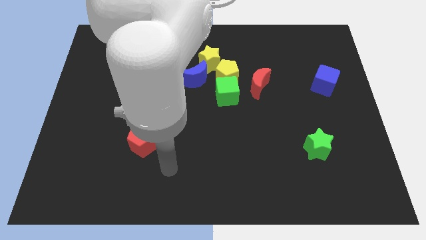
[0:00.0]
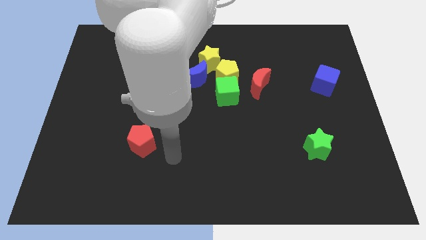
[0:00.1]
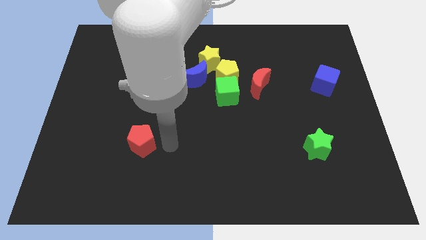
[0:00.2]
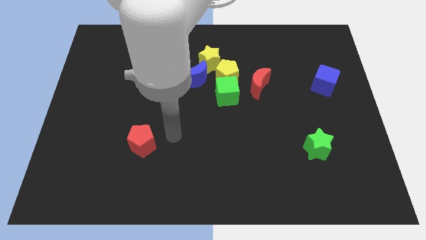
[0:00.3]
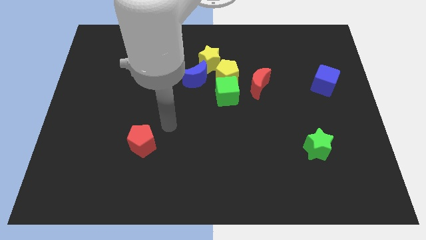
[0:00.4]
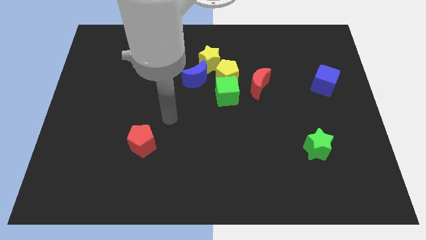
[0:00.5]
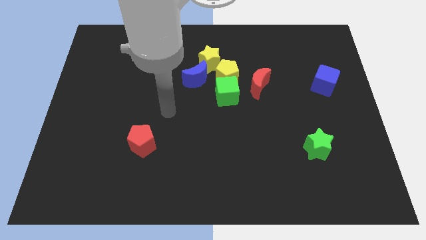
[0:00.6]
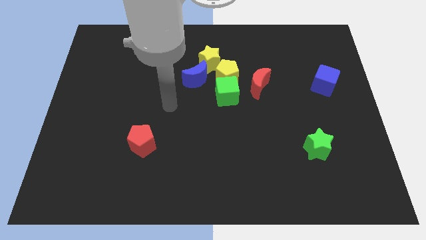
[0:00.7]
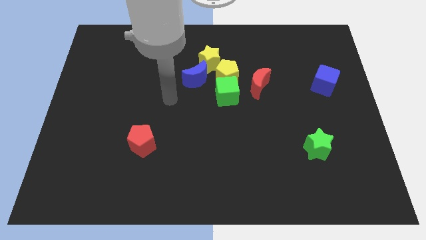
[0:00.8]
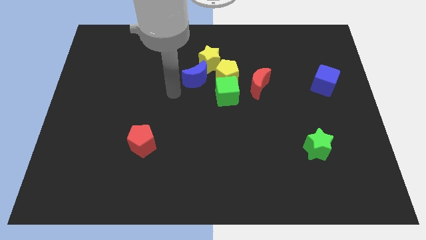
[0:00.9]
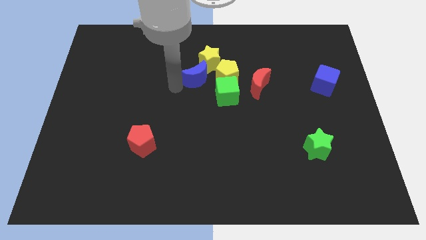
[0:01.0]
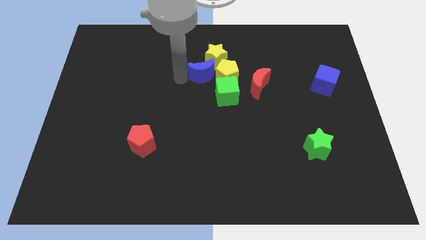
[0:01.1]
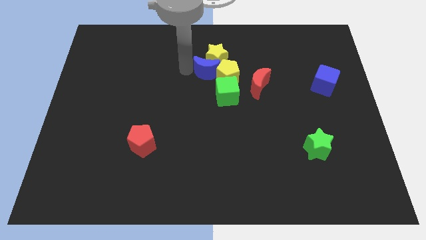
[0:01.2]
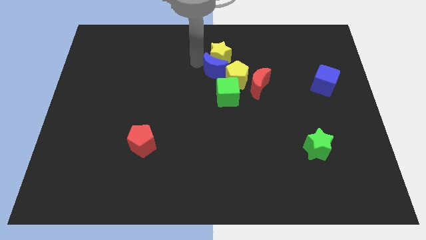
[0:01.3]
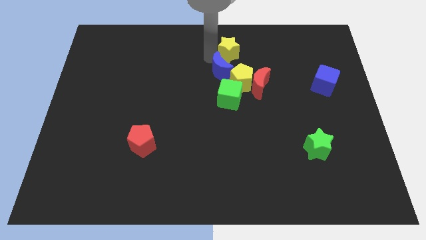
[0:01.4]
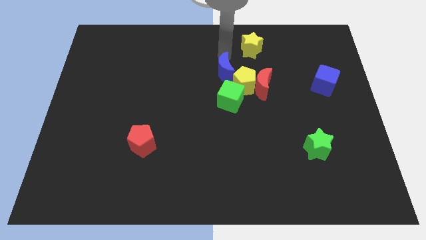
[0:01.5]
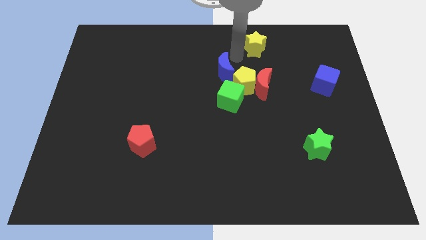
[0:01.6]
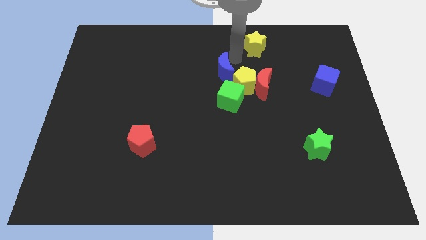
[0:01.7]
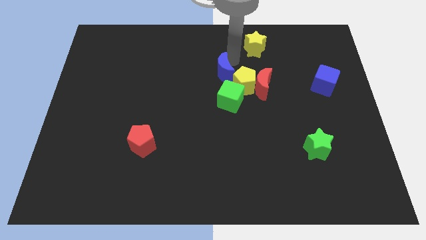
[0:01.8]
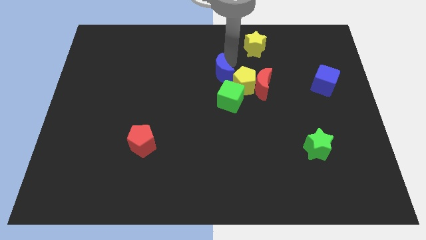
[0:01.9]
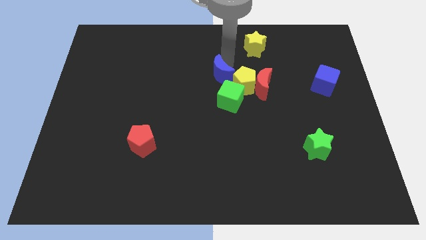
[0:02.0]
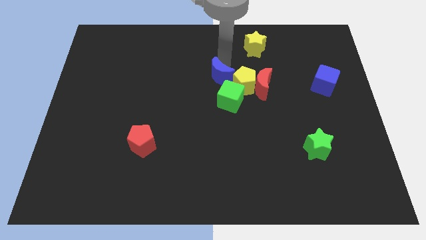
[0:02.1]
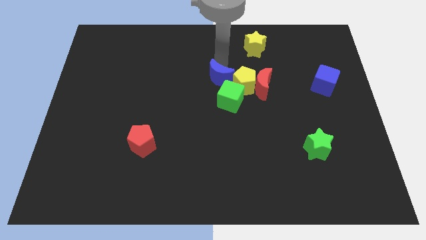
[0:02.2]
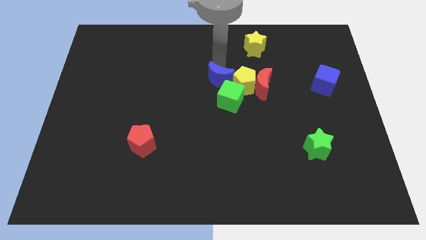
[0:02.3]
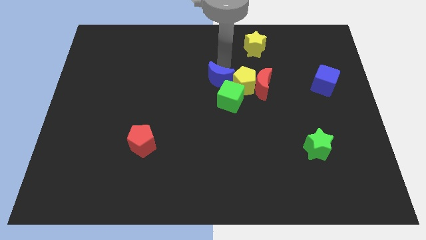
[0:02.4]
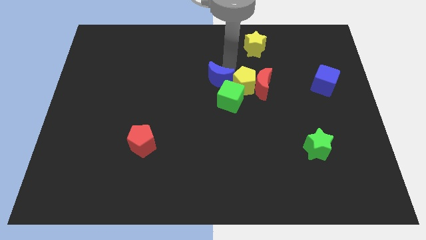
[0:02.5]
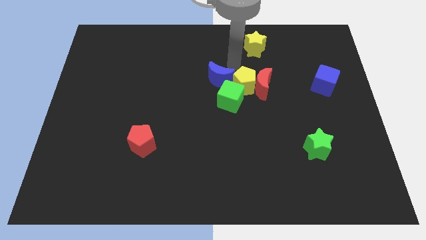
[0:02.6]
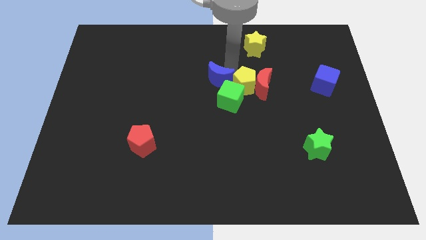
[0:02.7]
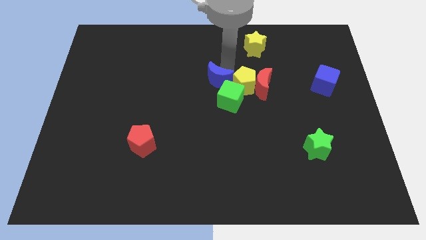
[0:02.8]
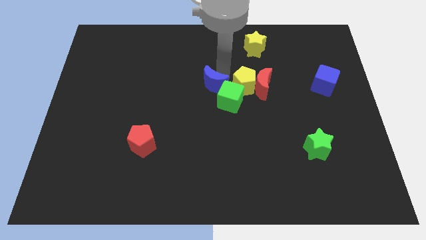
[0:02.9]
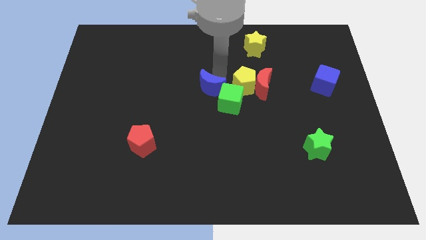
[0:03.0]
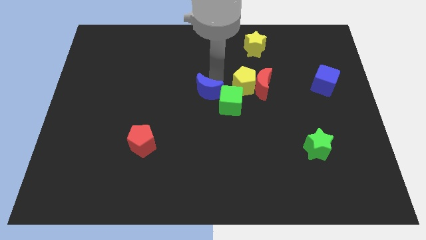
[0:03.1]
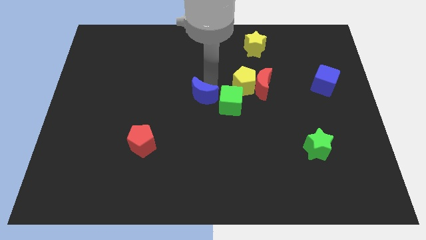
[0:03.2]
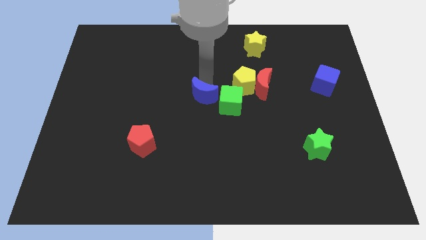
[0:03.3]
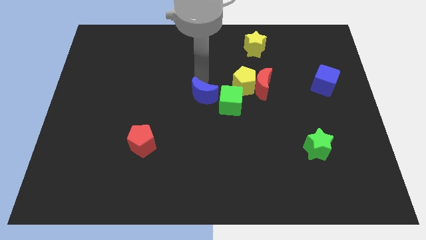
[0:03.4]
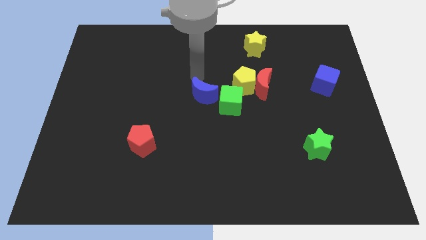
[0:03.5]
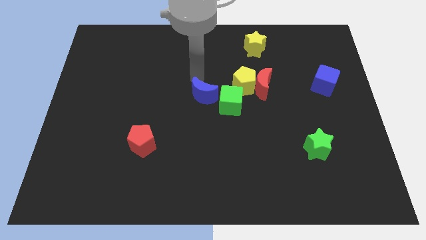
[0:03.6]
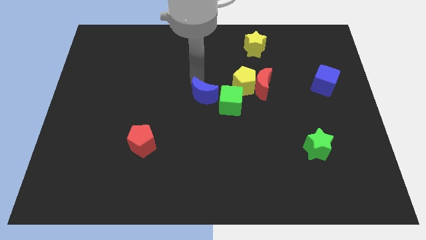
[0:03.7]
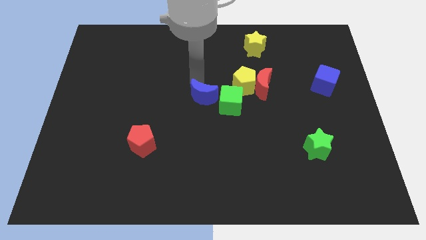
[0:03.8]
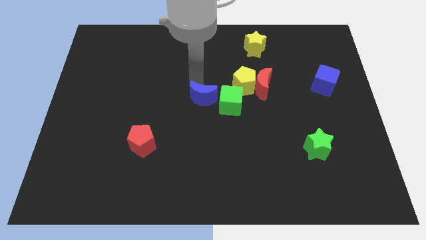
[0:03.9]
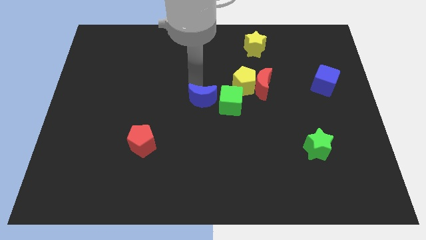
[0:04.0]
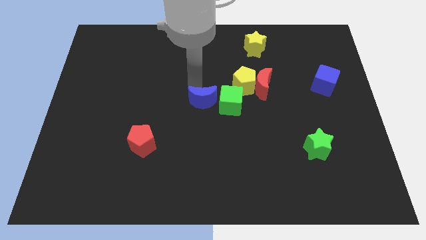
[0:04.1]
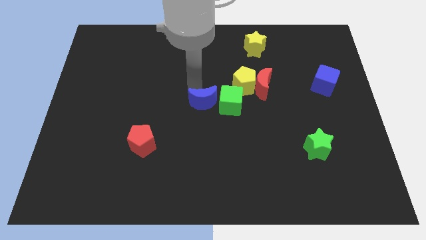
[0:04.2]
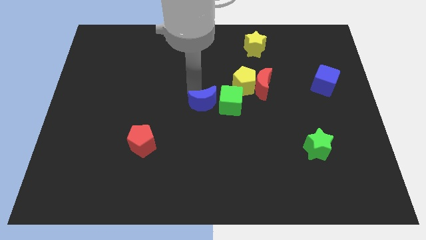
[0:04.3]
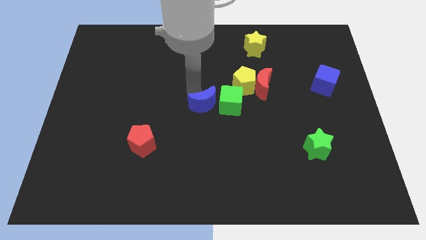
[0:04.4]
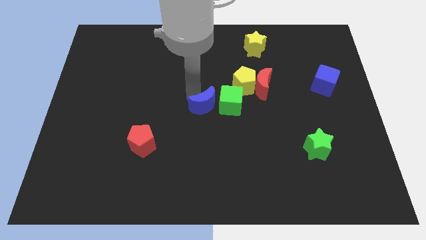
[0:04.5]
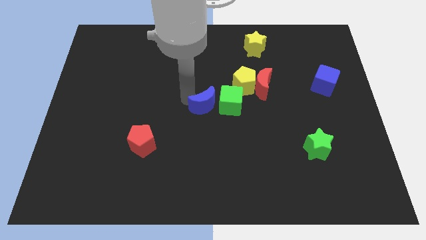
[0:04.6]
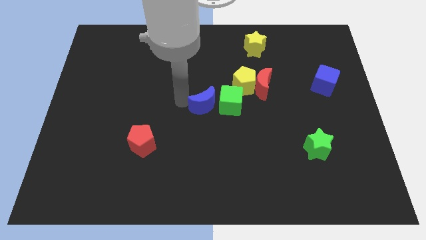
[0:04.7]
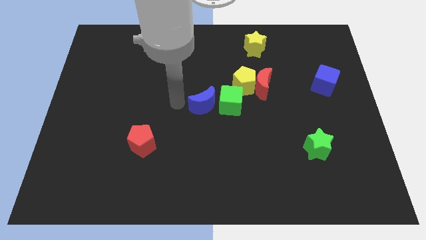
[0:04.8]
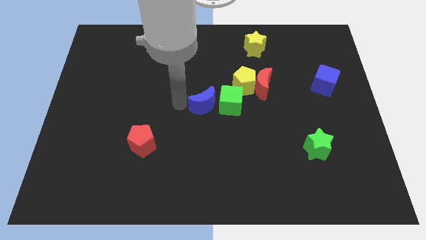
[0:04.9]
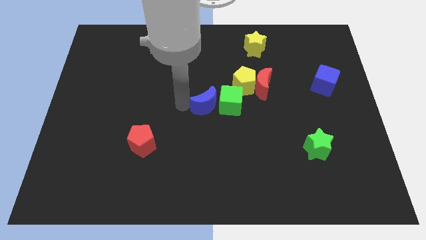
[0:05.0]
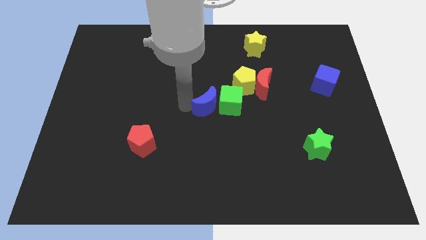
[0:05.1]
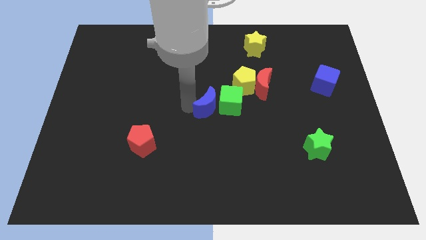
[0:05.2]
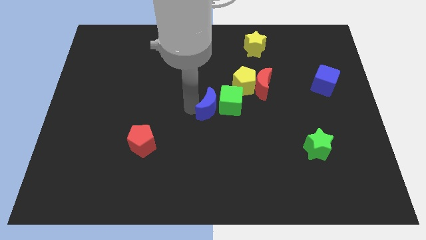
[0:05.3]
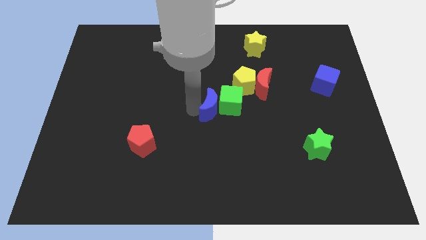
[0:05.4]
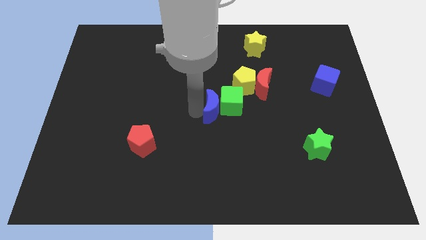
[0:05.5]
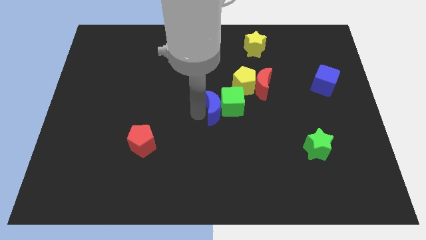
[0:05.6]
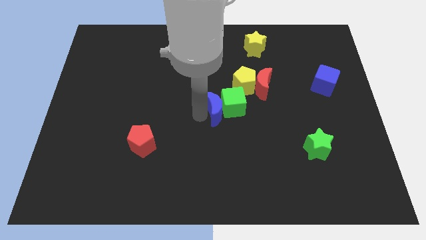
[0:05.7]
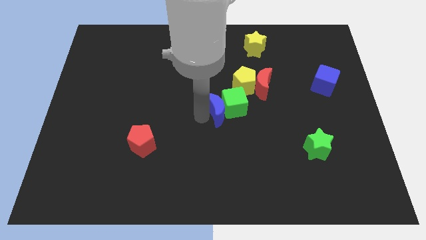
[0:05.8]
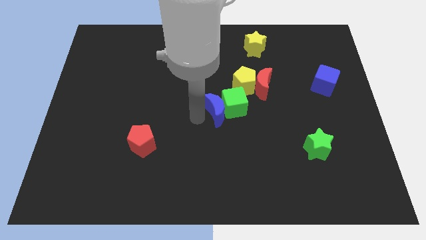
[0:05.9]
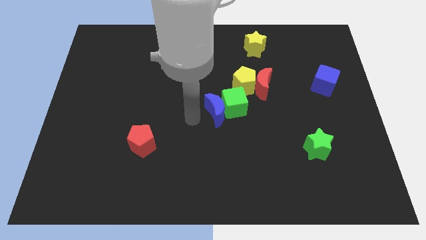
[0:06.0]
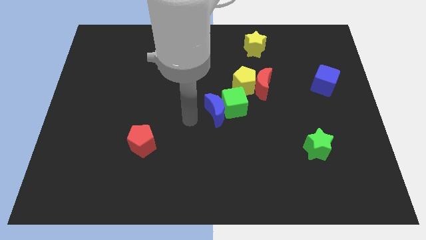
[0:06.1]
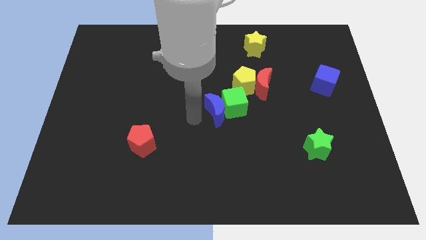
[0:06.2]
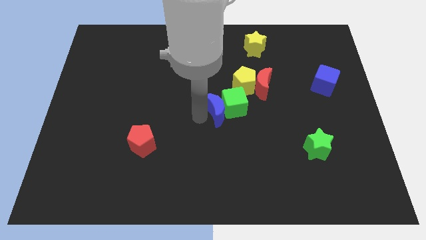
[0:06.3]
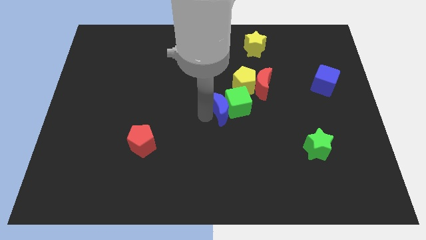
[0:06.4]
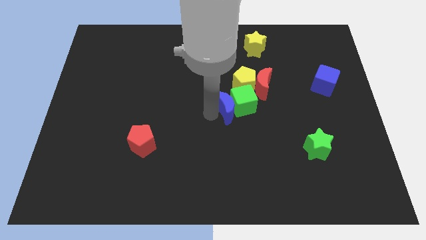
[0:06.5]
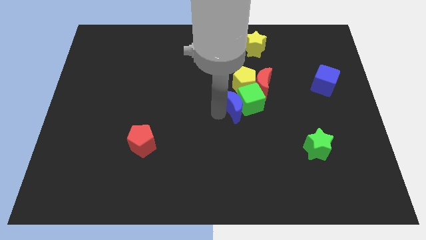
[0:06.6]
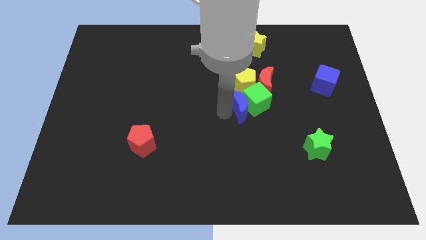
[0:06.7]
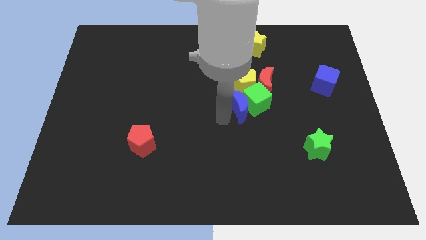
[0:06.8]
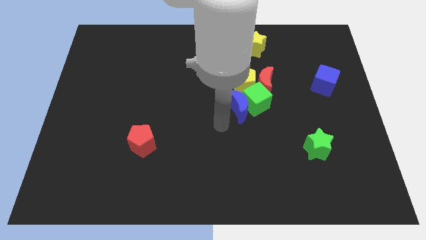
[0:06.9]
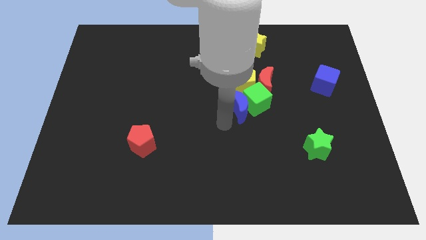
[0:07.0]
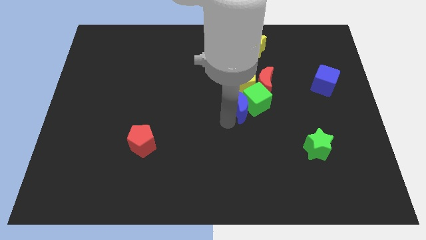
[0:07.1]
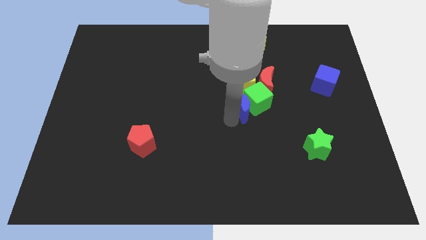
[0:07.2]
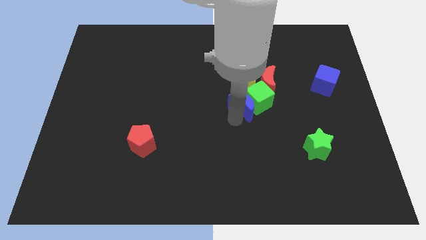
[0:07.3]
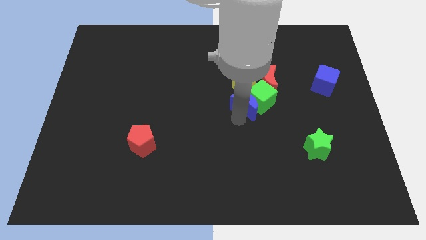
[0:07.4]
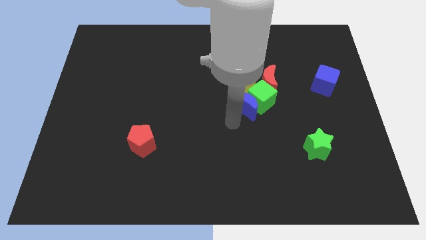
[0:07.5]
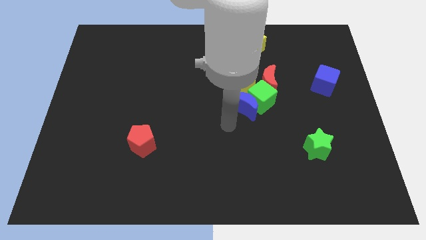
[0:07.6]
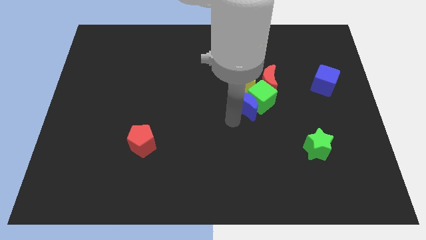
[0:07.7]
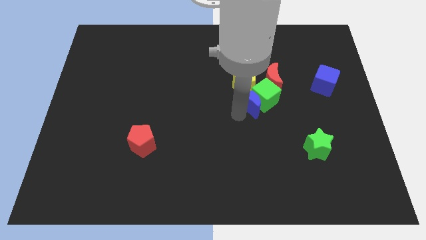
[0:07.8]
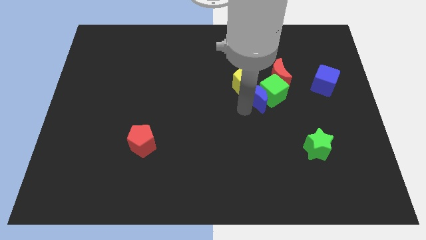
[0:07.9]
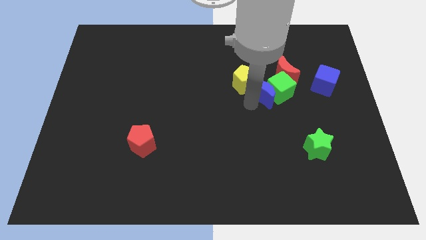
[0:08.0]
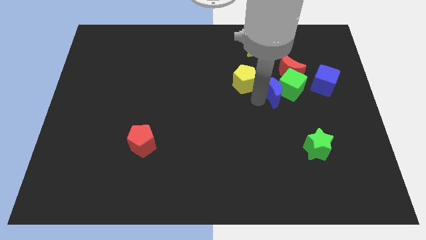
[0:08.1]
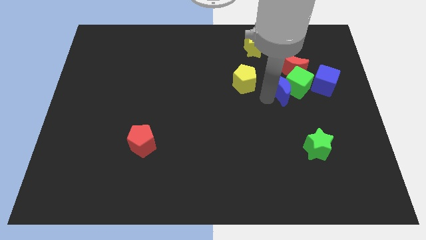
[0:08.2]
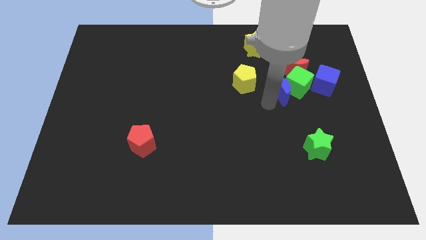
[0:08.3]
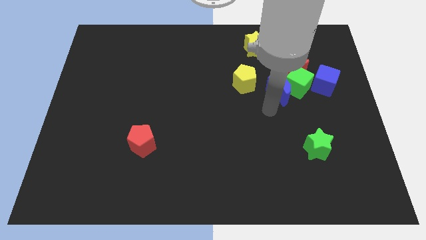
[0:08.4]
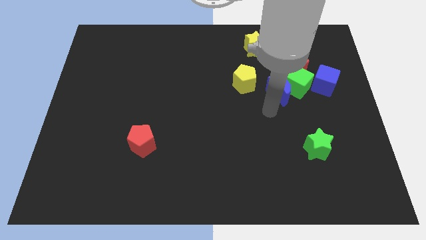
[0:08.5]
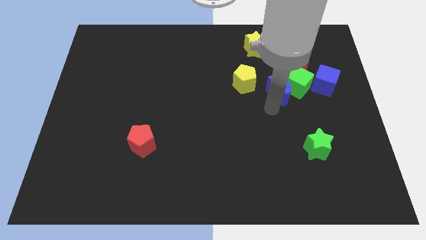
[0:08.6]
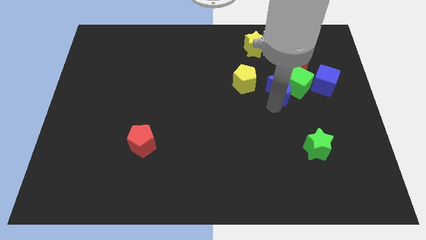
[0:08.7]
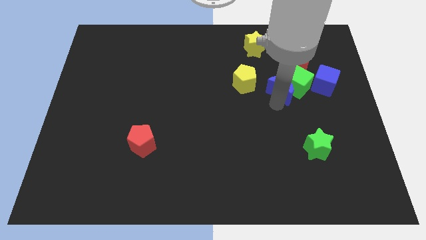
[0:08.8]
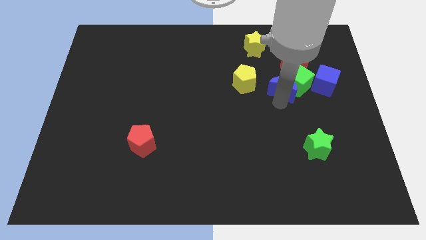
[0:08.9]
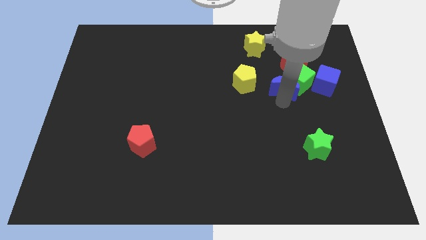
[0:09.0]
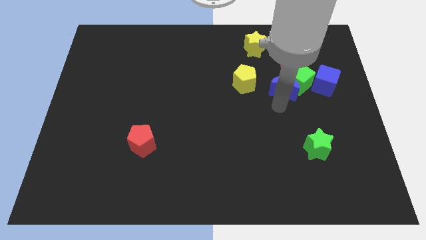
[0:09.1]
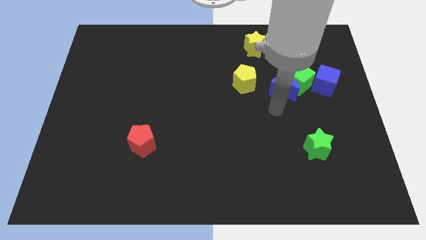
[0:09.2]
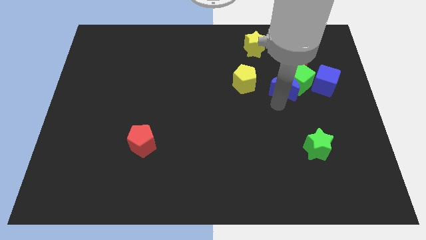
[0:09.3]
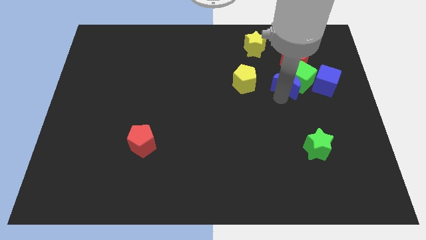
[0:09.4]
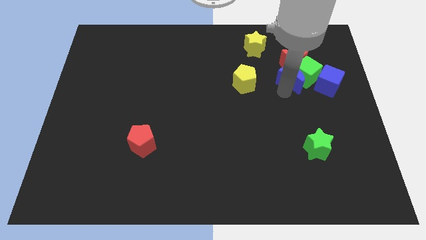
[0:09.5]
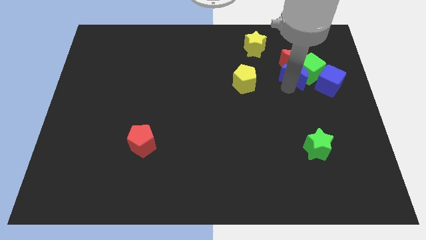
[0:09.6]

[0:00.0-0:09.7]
put the blue moon next to the red moon
